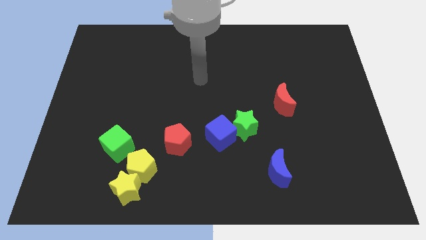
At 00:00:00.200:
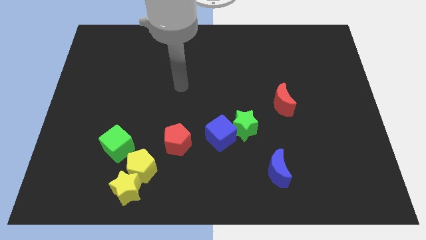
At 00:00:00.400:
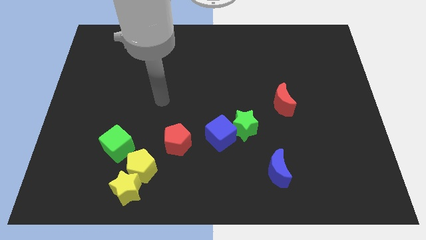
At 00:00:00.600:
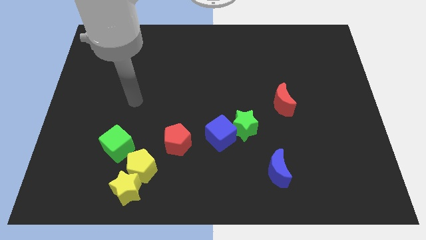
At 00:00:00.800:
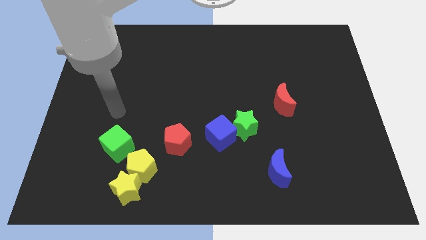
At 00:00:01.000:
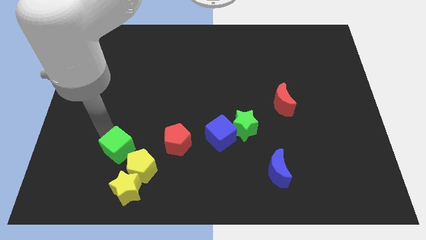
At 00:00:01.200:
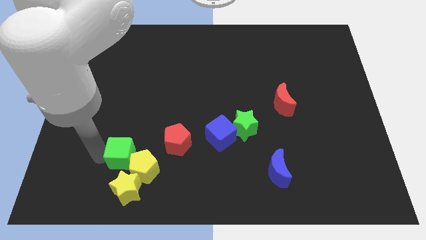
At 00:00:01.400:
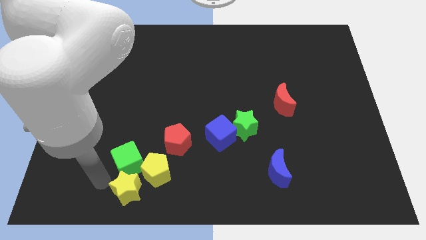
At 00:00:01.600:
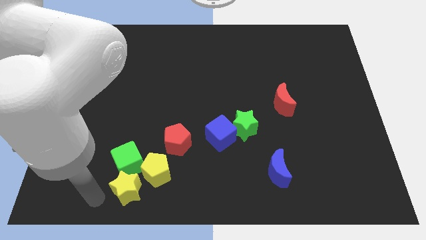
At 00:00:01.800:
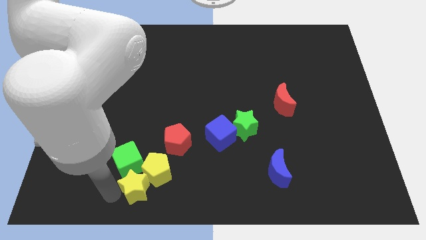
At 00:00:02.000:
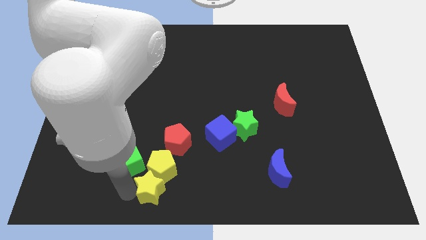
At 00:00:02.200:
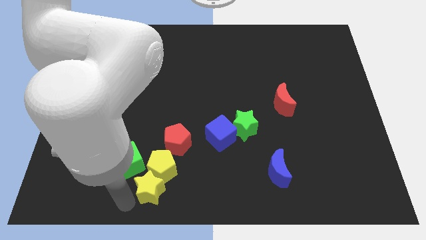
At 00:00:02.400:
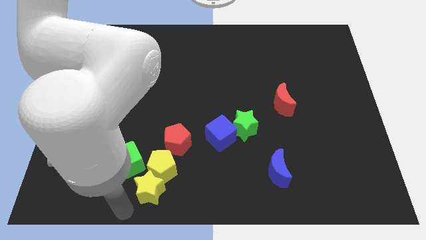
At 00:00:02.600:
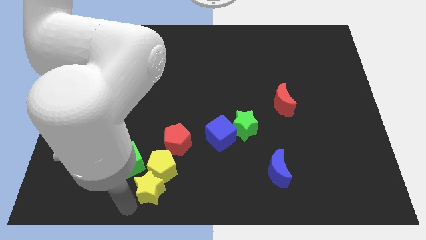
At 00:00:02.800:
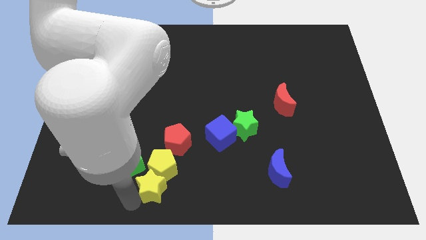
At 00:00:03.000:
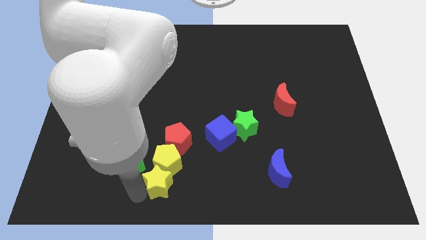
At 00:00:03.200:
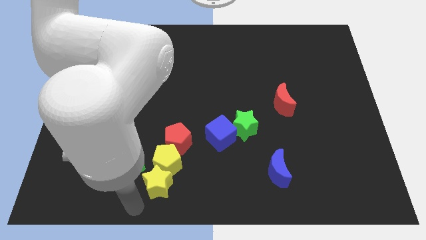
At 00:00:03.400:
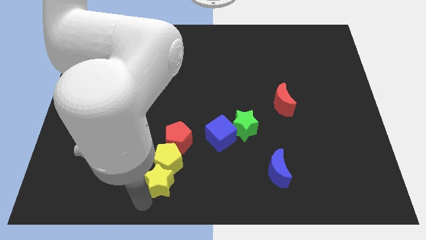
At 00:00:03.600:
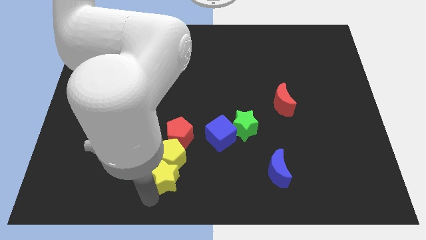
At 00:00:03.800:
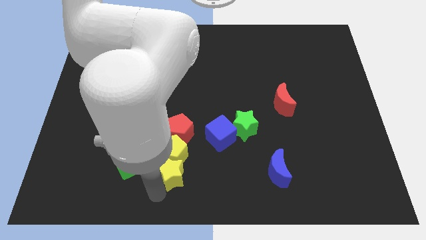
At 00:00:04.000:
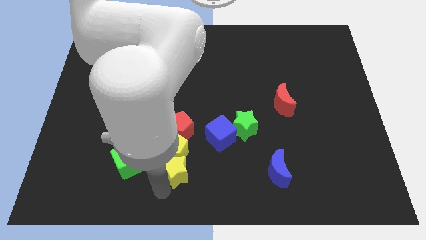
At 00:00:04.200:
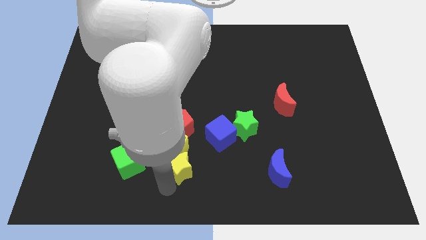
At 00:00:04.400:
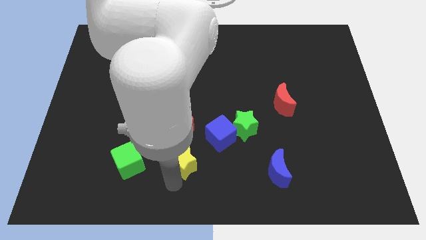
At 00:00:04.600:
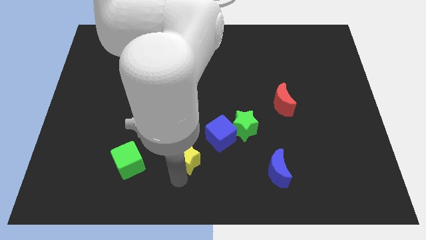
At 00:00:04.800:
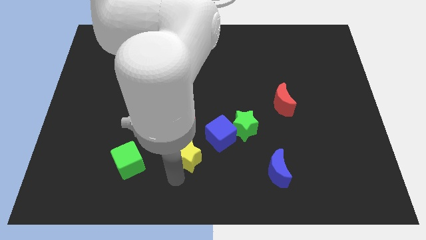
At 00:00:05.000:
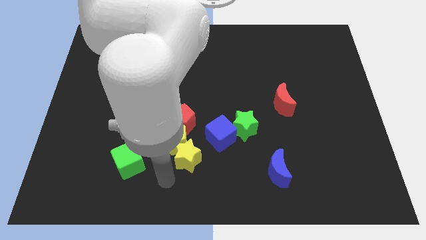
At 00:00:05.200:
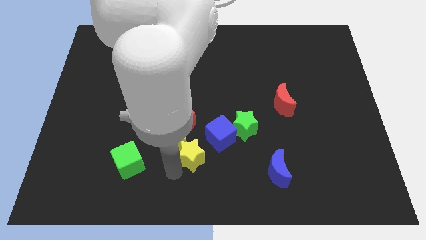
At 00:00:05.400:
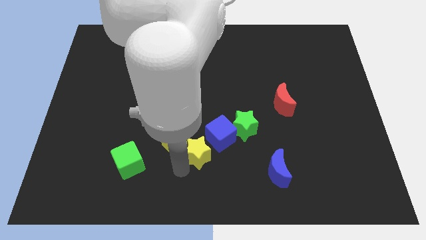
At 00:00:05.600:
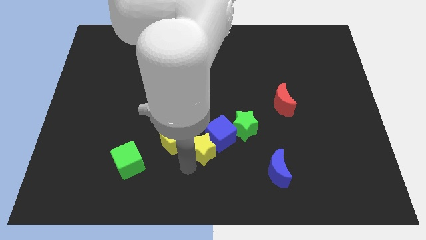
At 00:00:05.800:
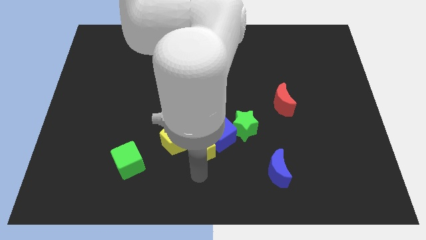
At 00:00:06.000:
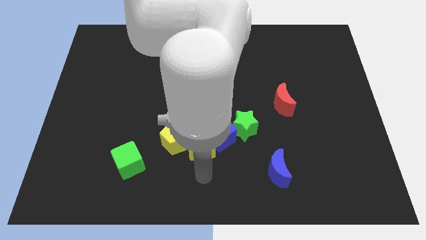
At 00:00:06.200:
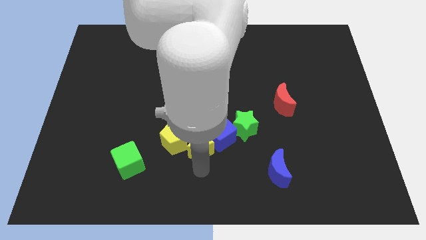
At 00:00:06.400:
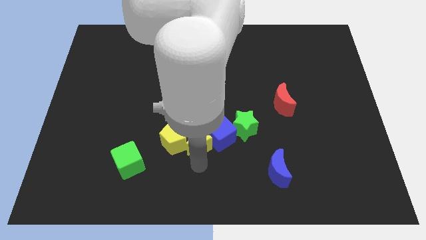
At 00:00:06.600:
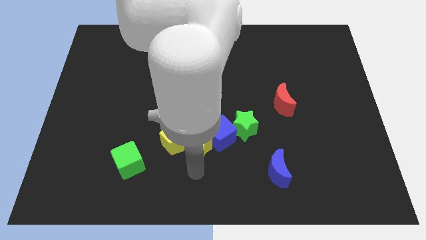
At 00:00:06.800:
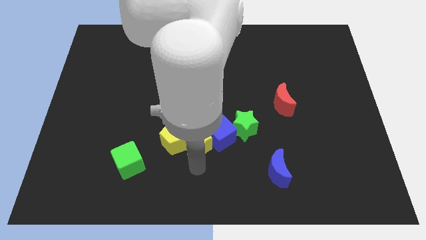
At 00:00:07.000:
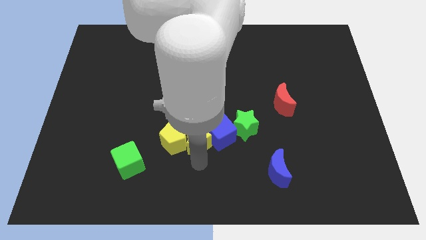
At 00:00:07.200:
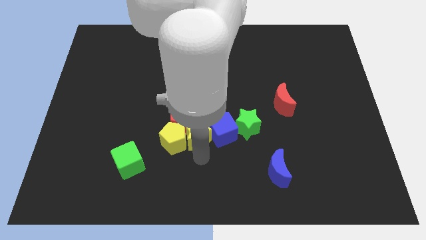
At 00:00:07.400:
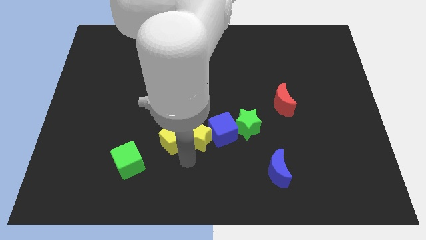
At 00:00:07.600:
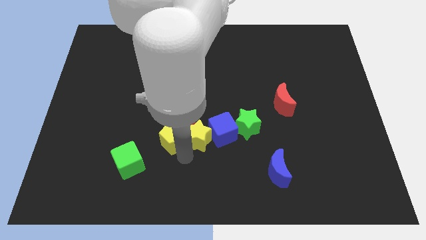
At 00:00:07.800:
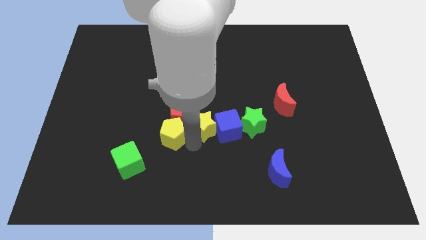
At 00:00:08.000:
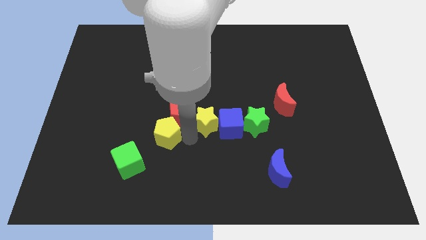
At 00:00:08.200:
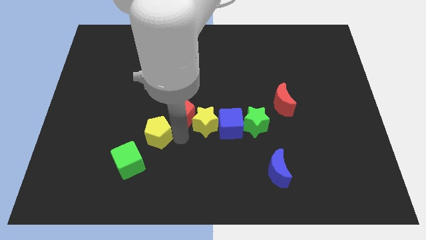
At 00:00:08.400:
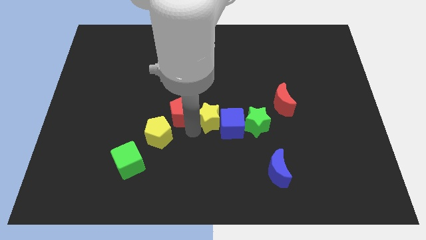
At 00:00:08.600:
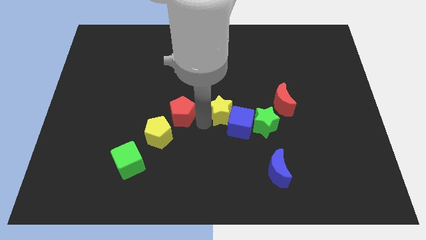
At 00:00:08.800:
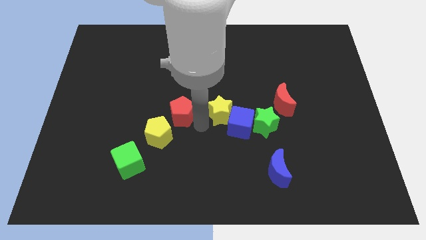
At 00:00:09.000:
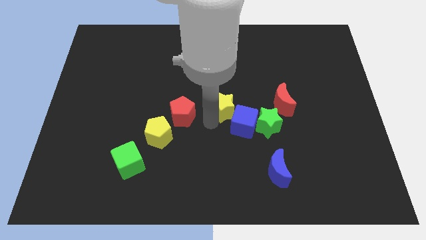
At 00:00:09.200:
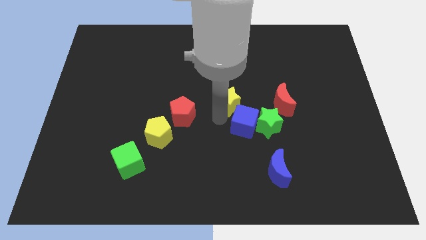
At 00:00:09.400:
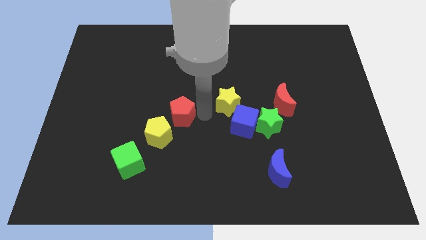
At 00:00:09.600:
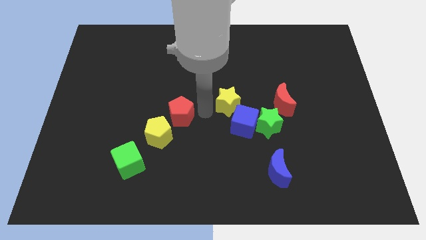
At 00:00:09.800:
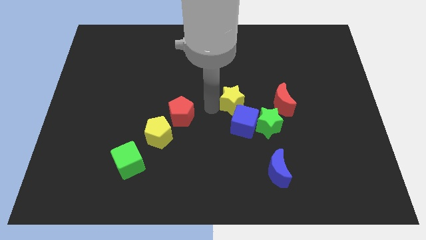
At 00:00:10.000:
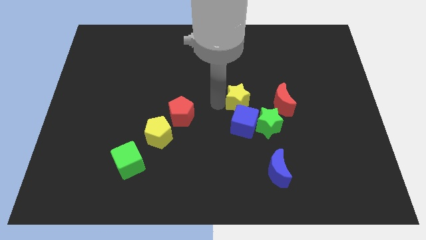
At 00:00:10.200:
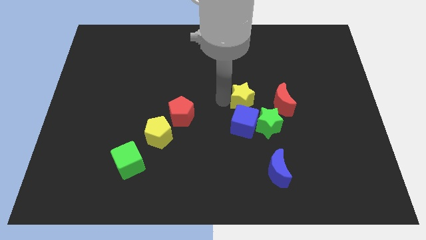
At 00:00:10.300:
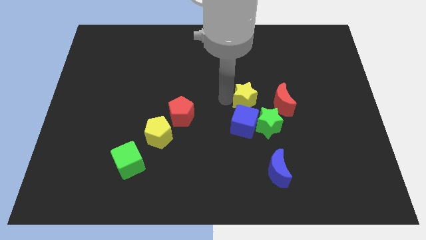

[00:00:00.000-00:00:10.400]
slide the yellow star to the top of the green star

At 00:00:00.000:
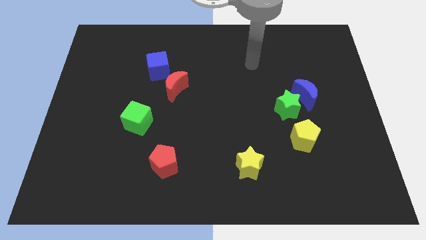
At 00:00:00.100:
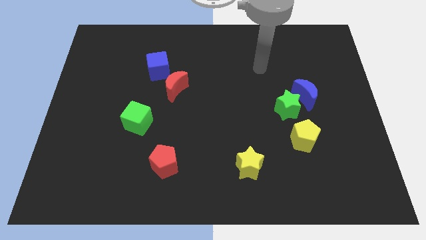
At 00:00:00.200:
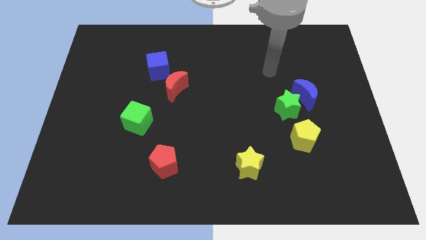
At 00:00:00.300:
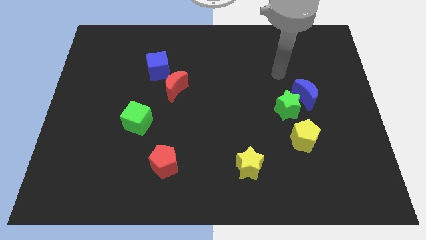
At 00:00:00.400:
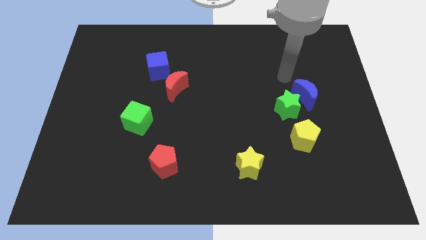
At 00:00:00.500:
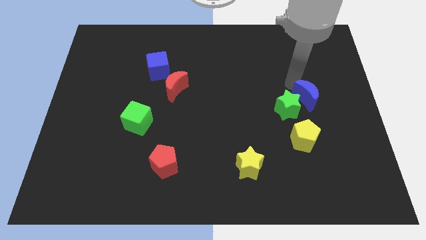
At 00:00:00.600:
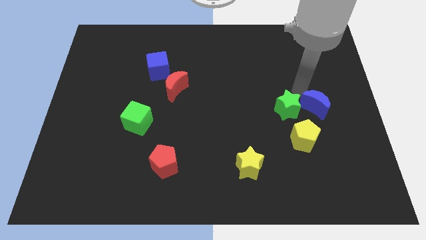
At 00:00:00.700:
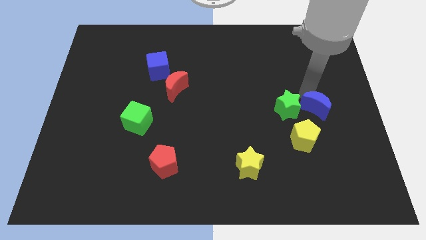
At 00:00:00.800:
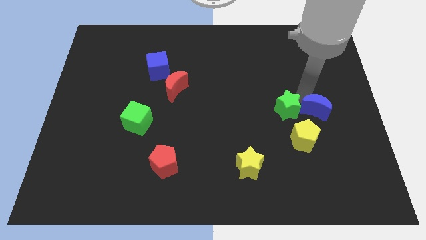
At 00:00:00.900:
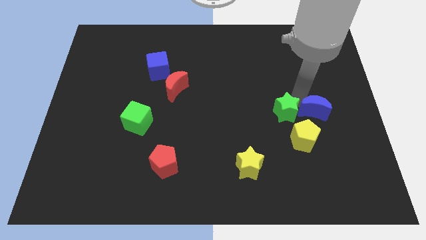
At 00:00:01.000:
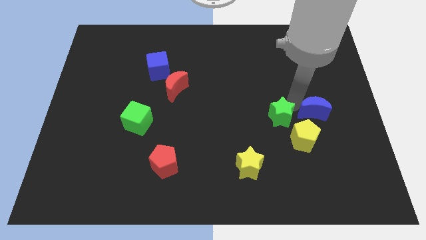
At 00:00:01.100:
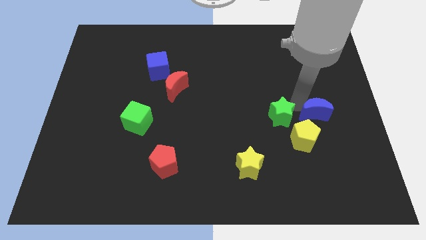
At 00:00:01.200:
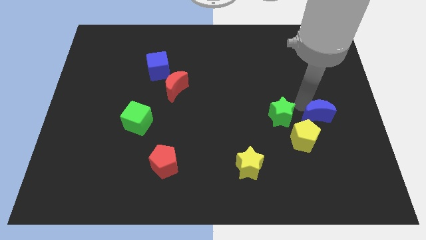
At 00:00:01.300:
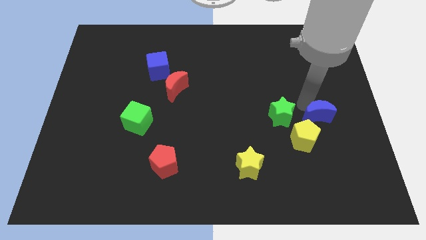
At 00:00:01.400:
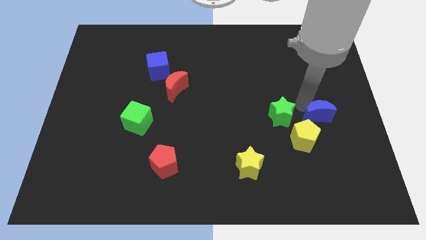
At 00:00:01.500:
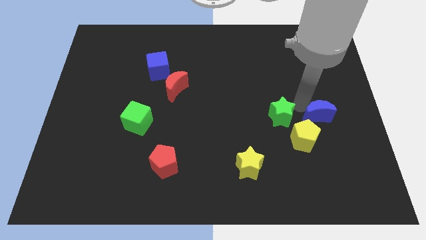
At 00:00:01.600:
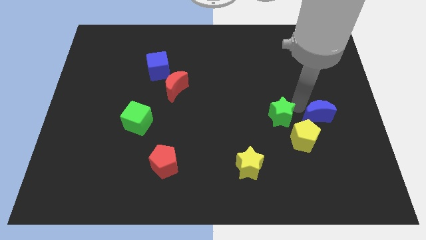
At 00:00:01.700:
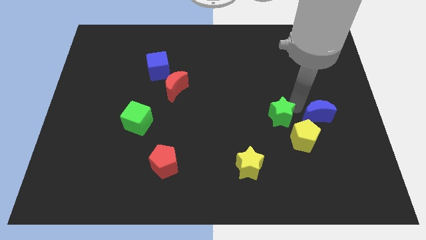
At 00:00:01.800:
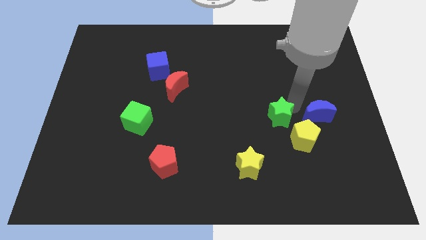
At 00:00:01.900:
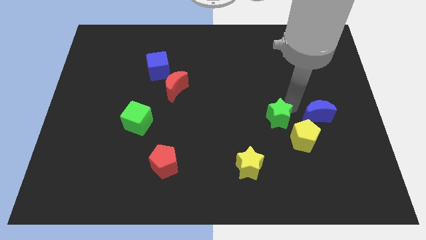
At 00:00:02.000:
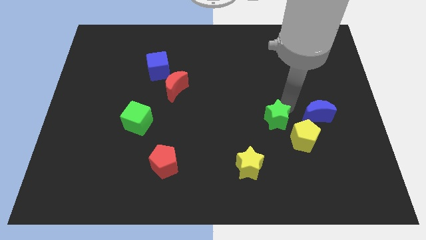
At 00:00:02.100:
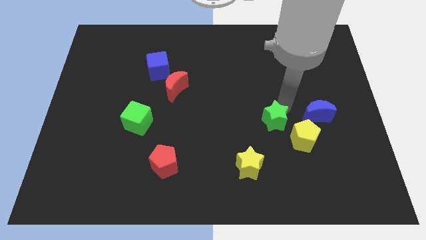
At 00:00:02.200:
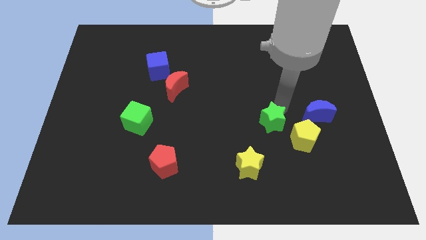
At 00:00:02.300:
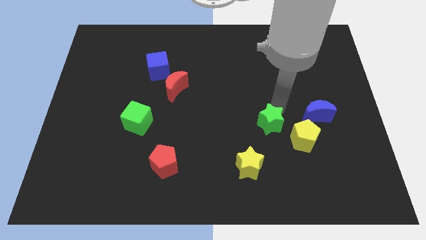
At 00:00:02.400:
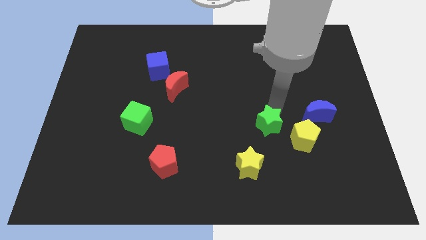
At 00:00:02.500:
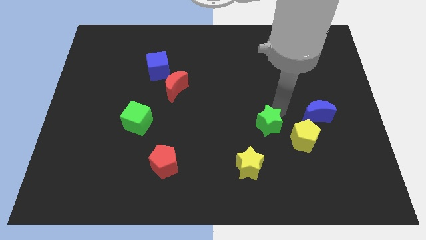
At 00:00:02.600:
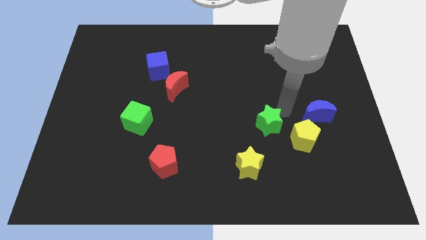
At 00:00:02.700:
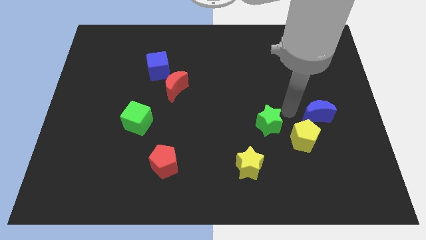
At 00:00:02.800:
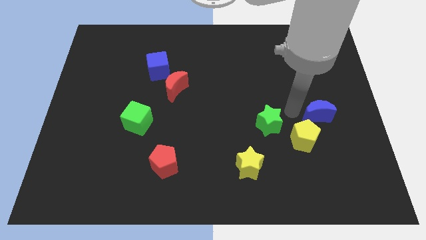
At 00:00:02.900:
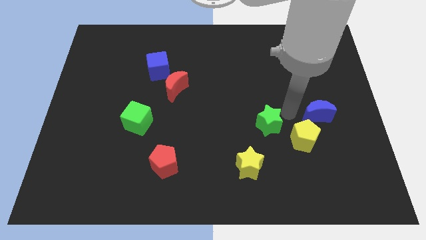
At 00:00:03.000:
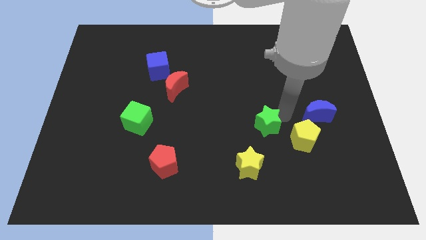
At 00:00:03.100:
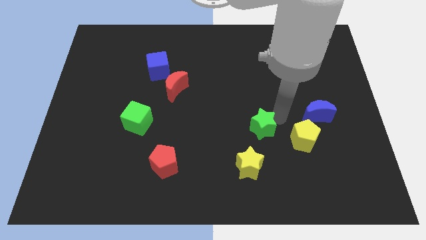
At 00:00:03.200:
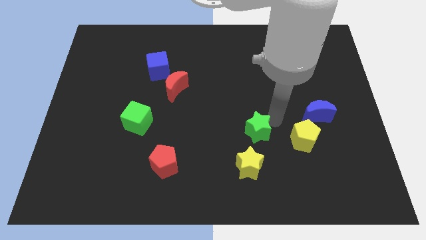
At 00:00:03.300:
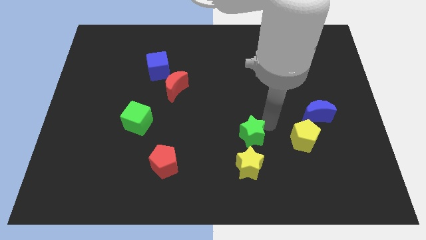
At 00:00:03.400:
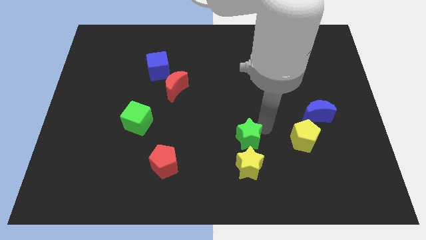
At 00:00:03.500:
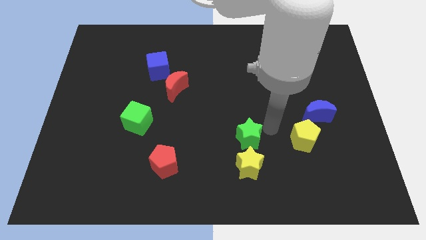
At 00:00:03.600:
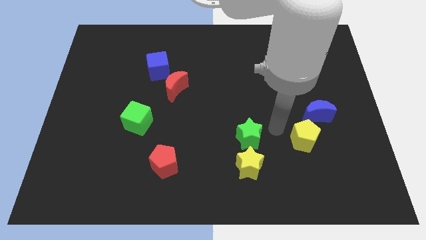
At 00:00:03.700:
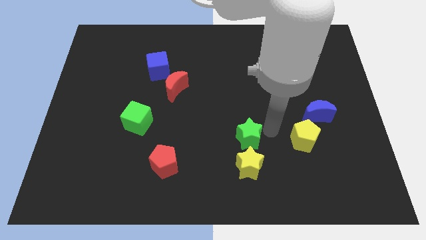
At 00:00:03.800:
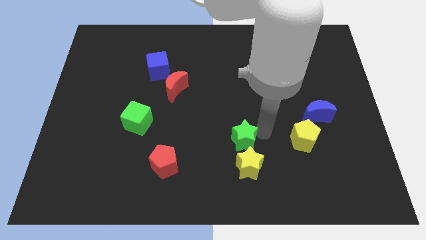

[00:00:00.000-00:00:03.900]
push the green star to the top left side of the yellow star
